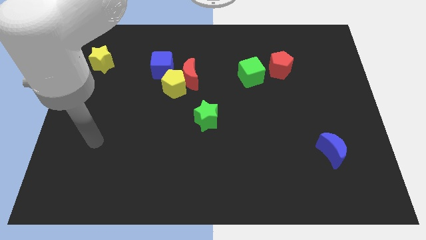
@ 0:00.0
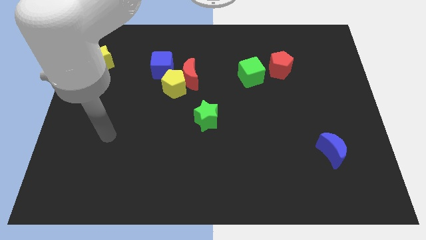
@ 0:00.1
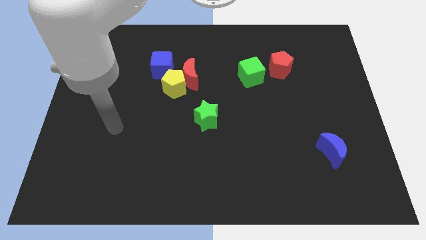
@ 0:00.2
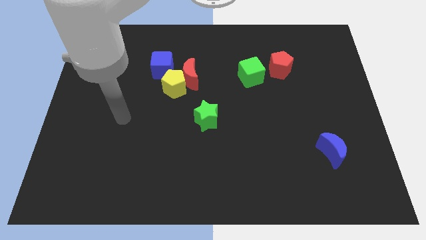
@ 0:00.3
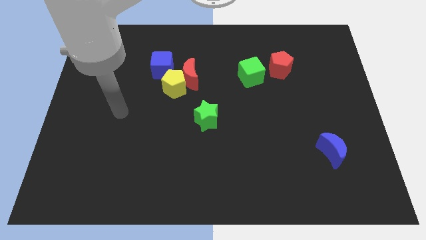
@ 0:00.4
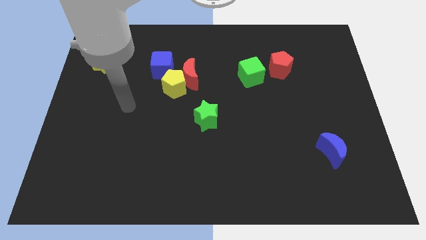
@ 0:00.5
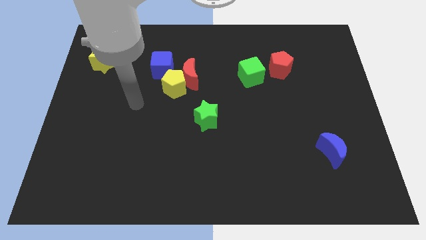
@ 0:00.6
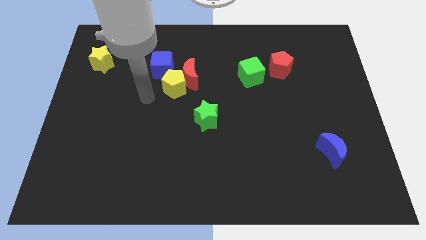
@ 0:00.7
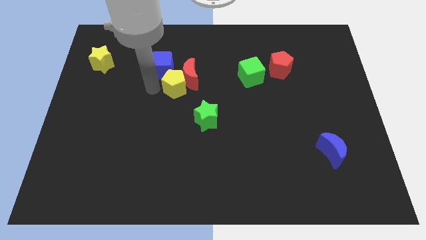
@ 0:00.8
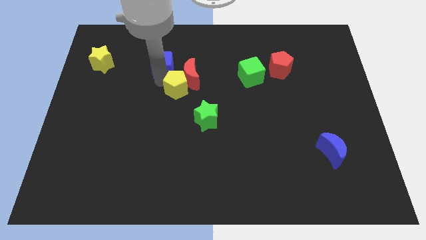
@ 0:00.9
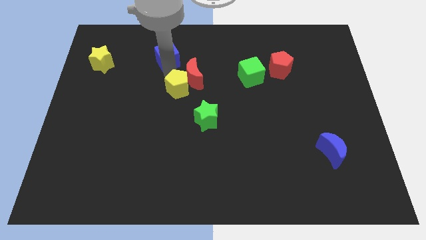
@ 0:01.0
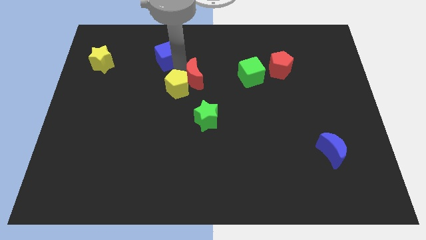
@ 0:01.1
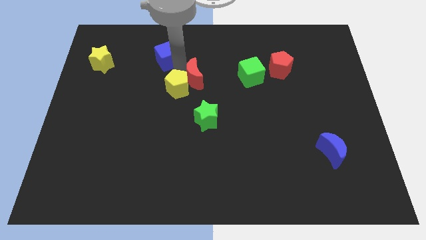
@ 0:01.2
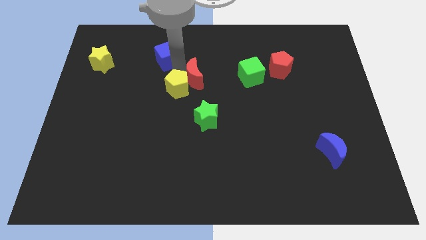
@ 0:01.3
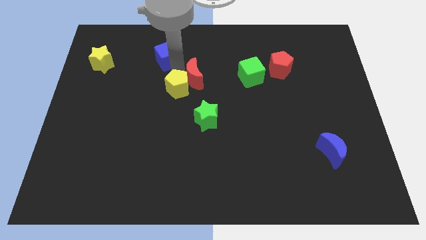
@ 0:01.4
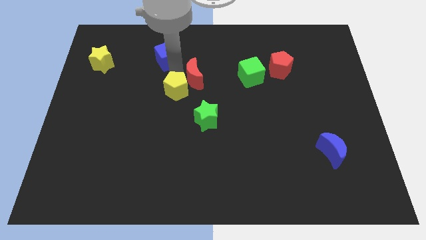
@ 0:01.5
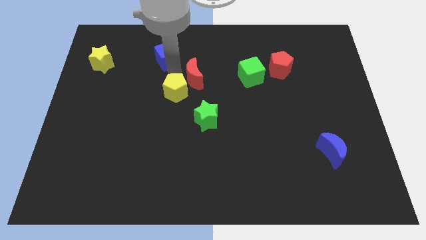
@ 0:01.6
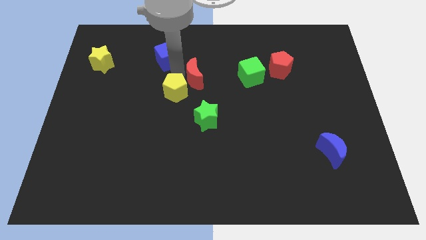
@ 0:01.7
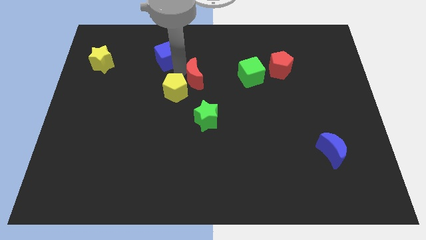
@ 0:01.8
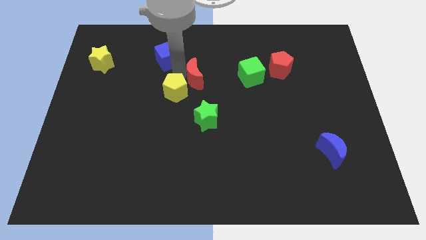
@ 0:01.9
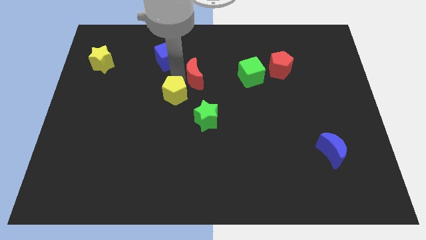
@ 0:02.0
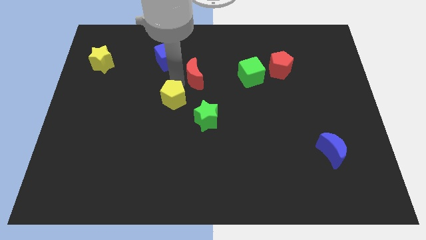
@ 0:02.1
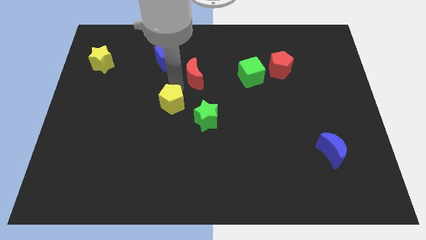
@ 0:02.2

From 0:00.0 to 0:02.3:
separate the yellow pentagon from the red moon and blue cube

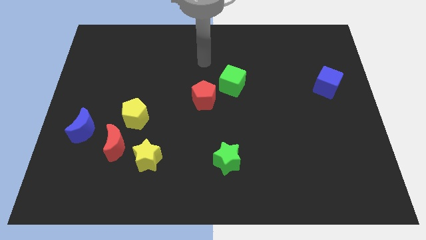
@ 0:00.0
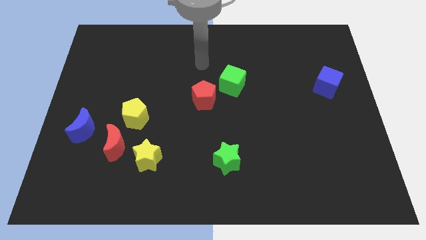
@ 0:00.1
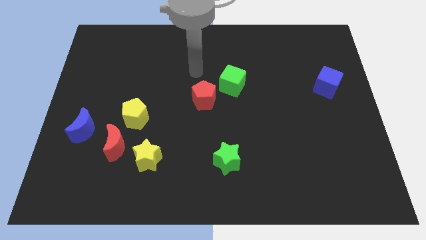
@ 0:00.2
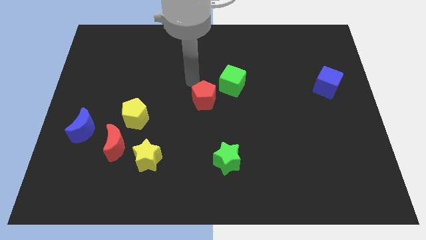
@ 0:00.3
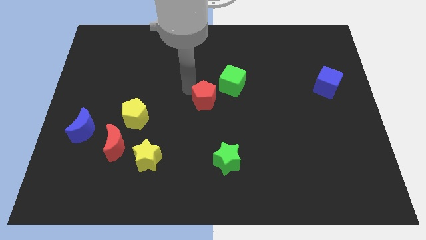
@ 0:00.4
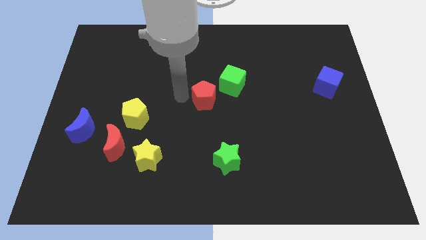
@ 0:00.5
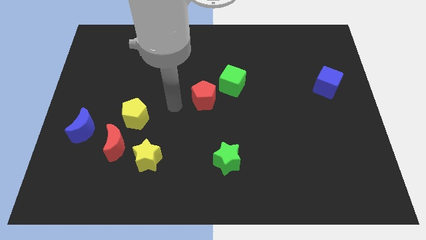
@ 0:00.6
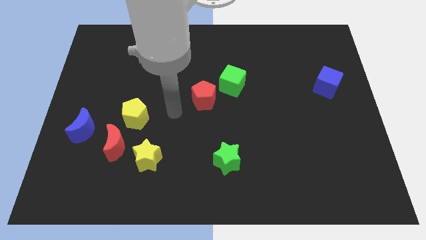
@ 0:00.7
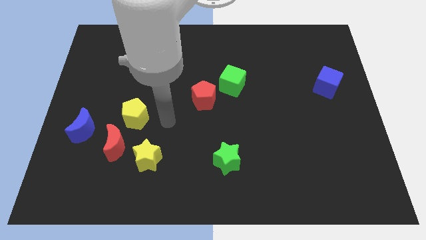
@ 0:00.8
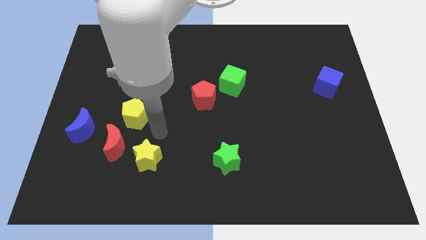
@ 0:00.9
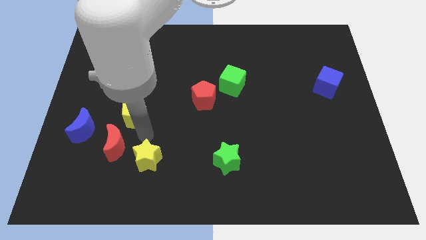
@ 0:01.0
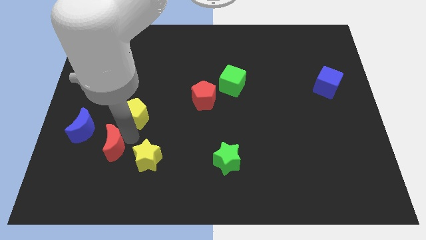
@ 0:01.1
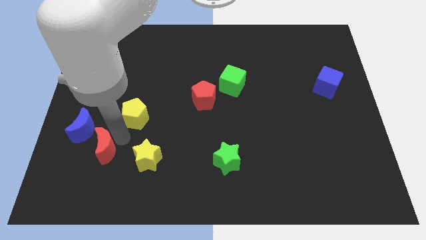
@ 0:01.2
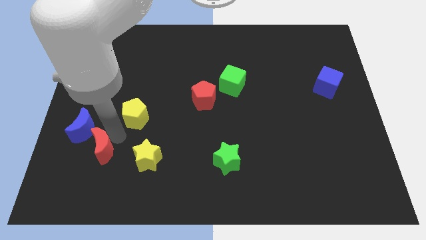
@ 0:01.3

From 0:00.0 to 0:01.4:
move the yellow pentagon away from the red moon

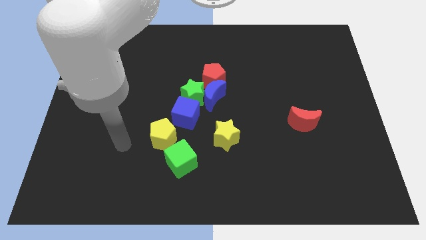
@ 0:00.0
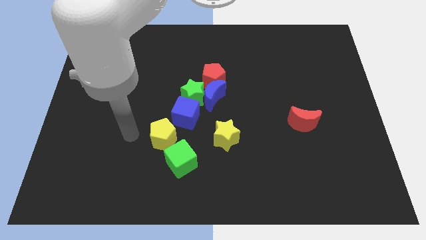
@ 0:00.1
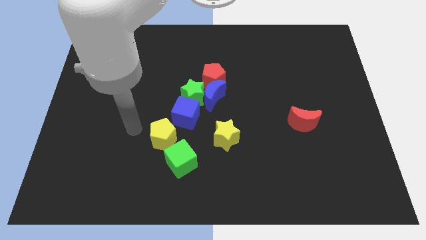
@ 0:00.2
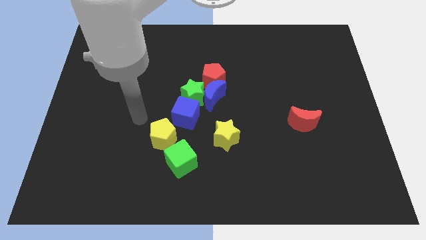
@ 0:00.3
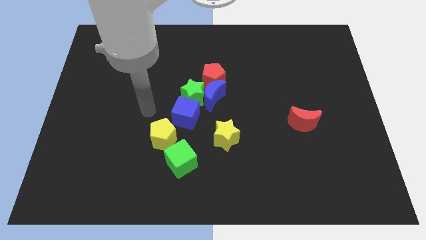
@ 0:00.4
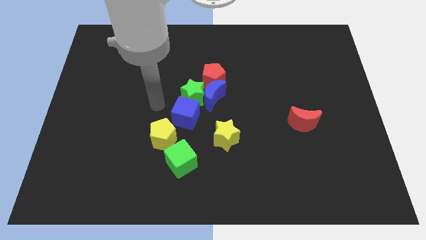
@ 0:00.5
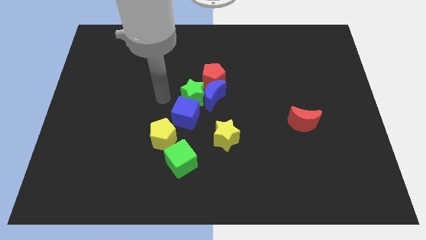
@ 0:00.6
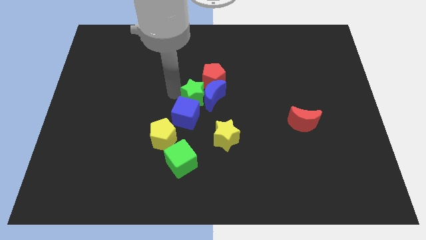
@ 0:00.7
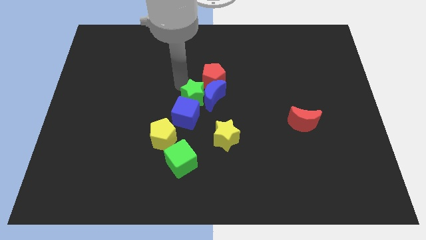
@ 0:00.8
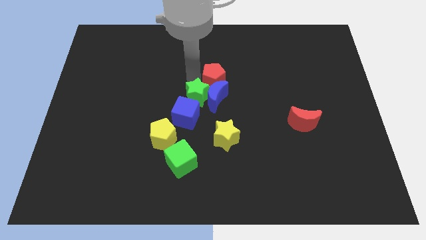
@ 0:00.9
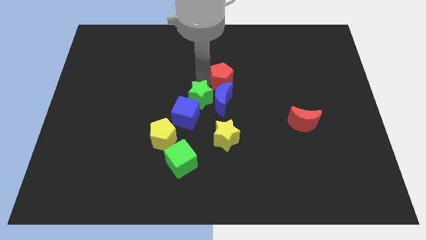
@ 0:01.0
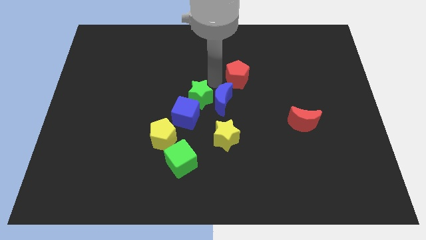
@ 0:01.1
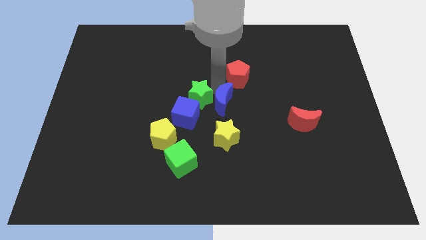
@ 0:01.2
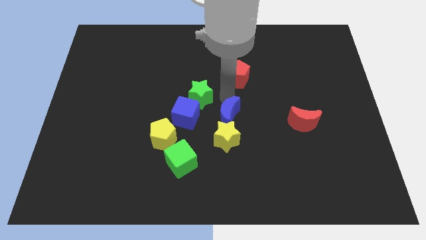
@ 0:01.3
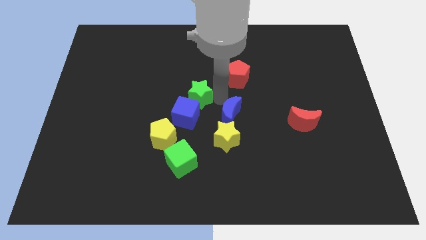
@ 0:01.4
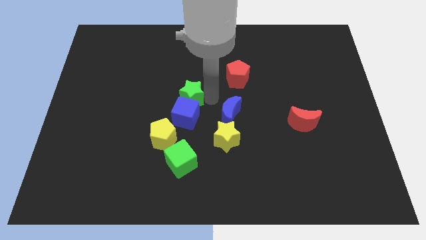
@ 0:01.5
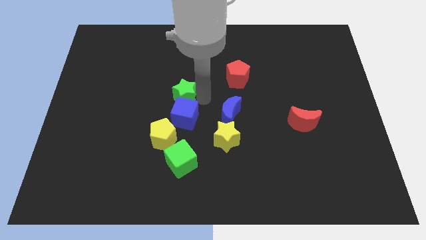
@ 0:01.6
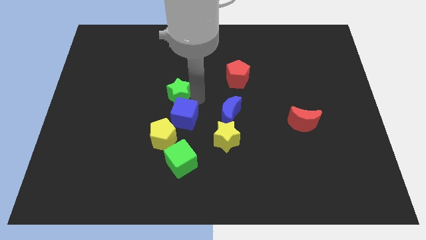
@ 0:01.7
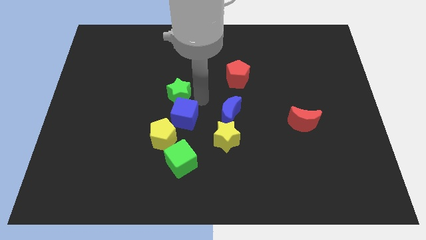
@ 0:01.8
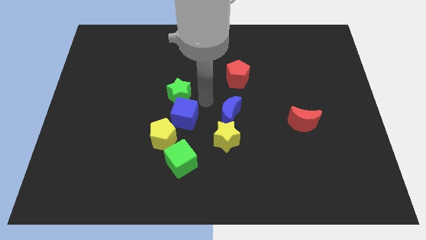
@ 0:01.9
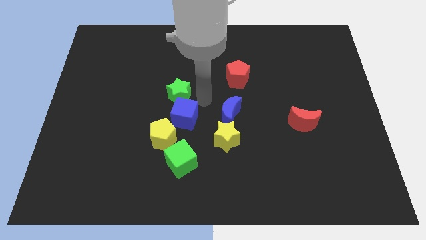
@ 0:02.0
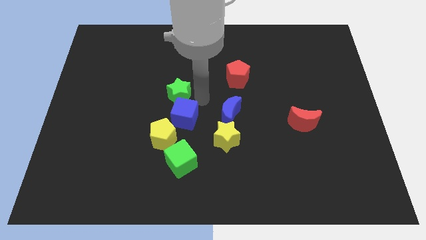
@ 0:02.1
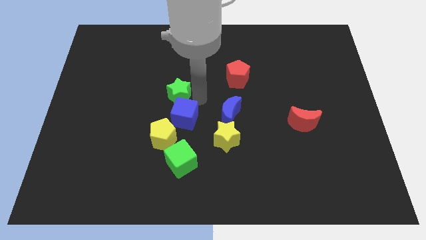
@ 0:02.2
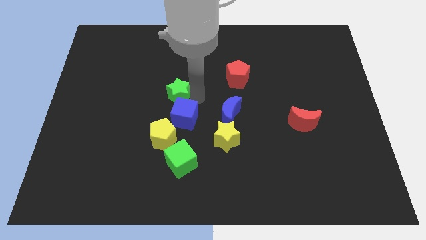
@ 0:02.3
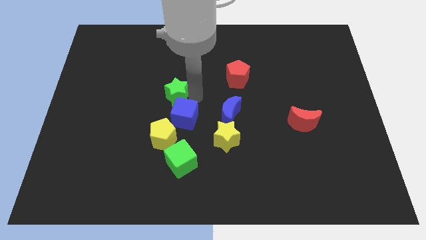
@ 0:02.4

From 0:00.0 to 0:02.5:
pull the green star apart from the group of blocks

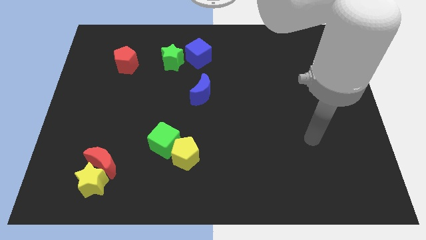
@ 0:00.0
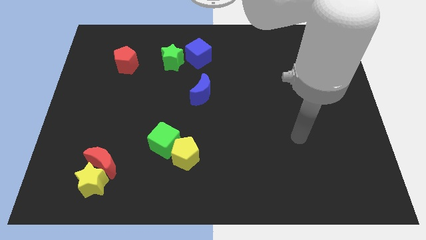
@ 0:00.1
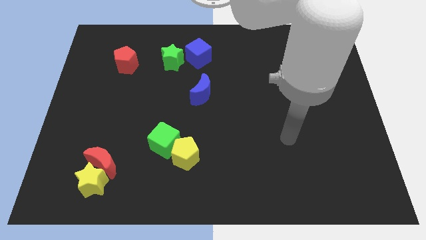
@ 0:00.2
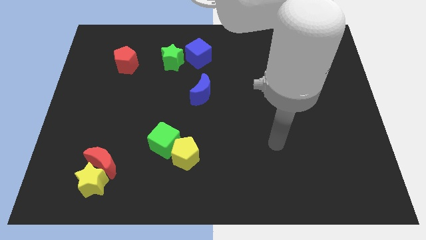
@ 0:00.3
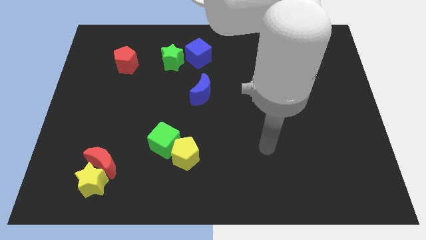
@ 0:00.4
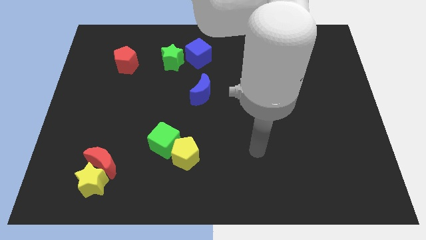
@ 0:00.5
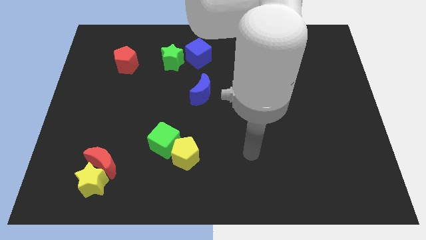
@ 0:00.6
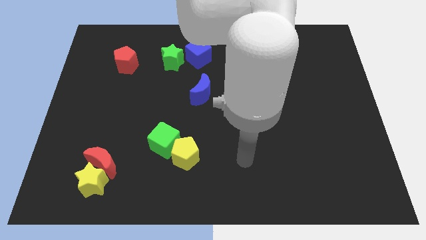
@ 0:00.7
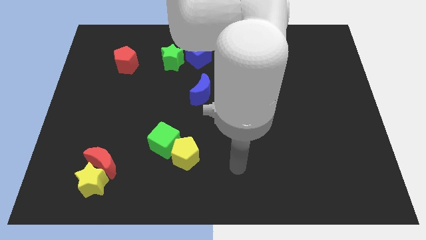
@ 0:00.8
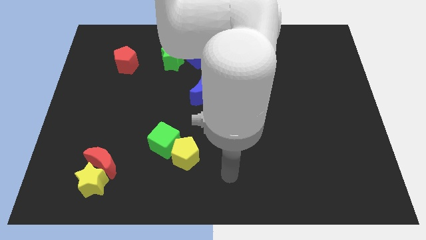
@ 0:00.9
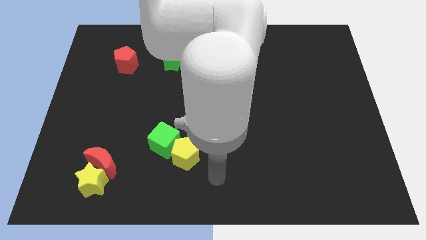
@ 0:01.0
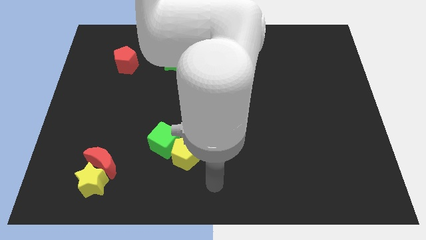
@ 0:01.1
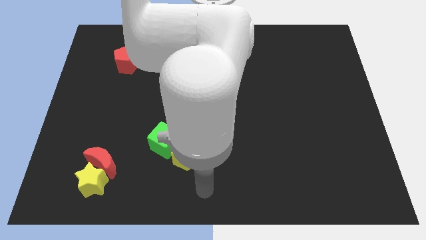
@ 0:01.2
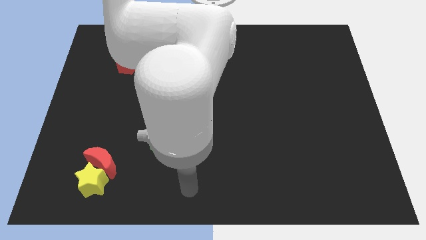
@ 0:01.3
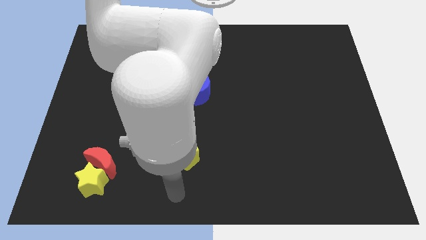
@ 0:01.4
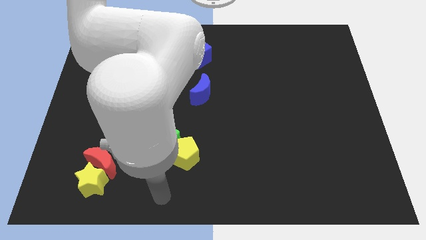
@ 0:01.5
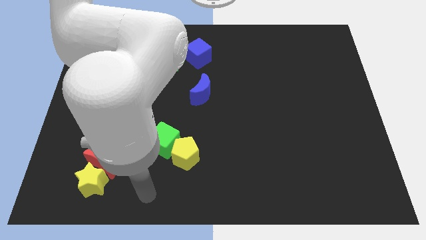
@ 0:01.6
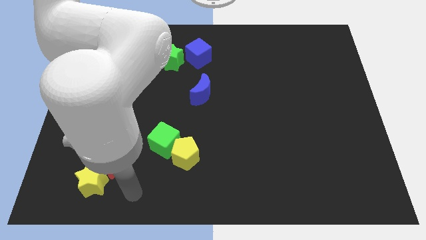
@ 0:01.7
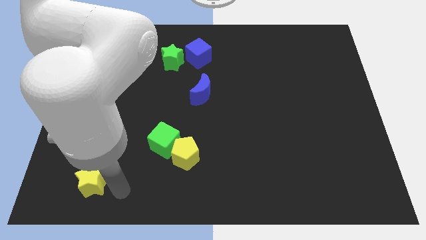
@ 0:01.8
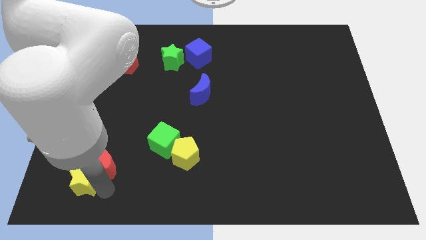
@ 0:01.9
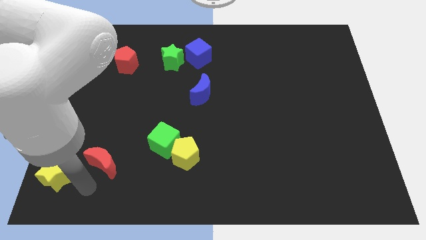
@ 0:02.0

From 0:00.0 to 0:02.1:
pull the red moon apart from the yellow star

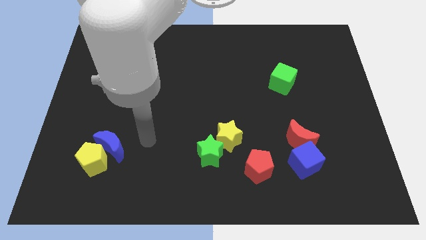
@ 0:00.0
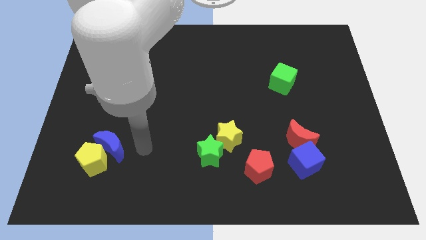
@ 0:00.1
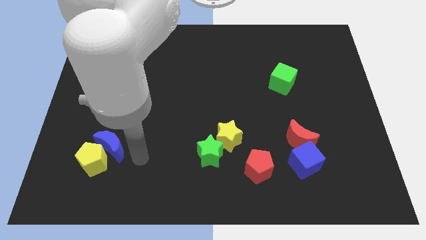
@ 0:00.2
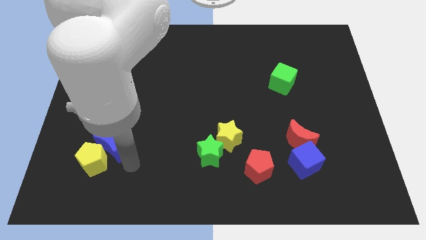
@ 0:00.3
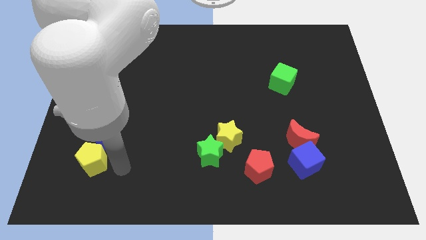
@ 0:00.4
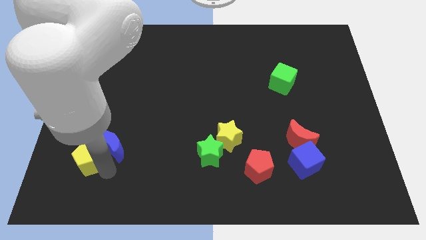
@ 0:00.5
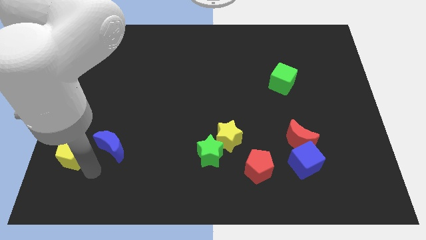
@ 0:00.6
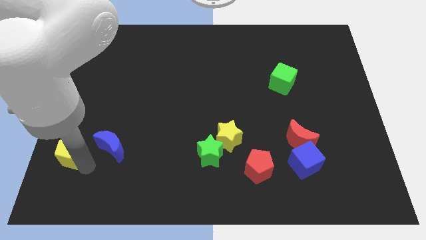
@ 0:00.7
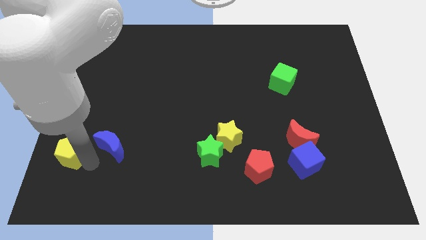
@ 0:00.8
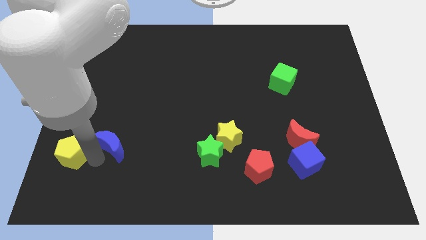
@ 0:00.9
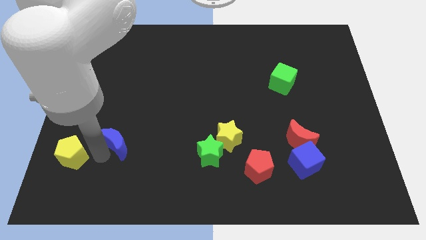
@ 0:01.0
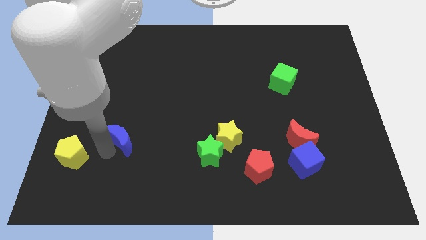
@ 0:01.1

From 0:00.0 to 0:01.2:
separate the blue moon from the yellow pentagon

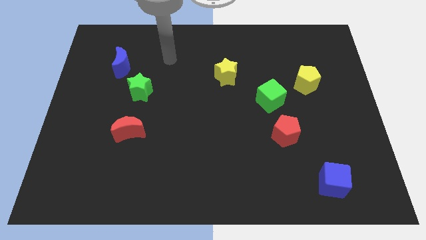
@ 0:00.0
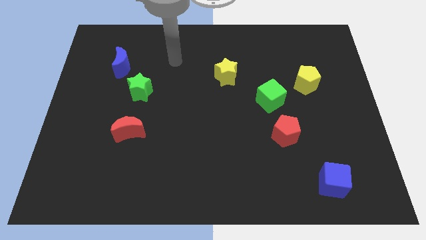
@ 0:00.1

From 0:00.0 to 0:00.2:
move the red pentagon away from the green cube
